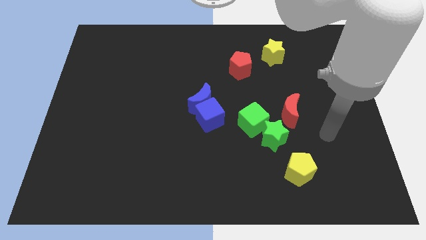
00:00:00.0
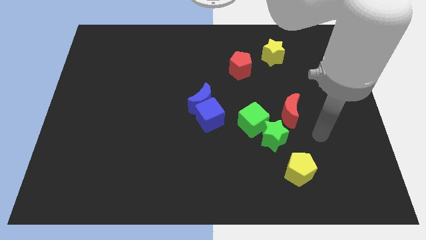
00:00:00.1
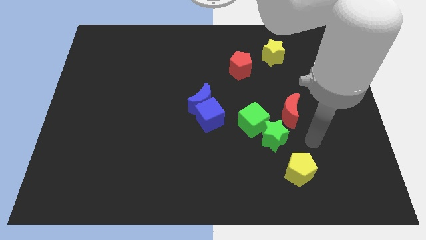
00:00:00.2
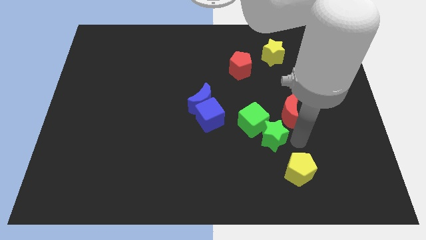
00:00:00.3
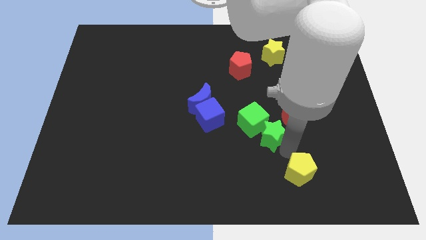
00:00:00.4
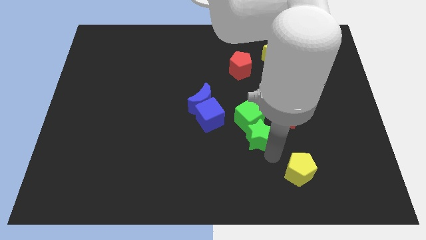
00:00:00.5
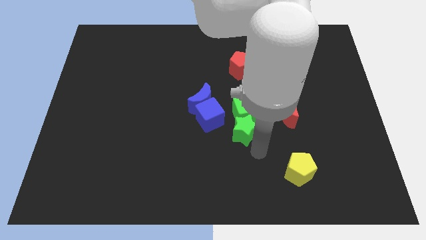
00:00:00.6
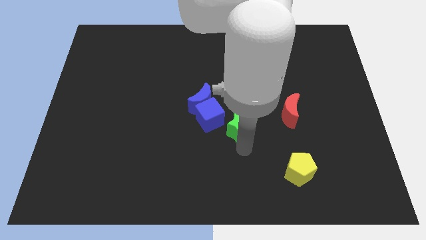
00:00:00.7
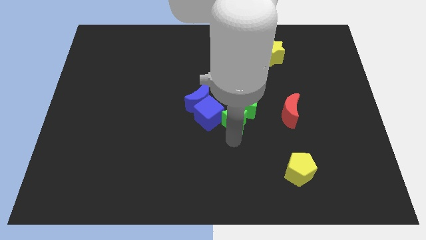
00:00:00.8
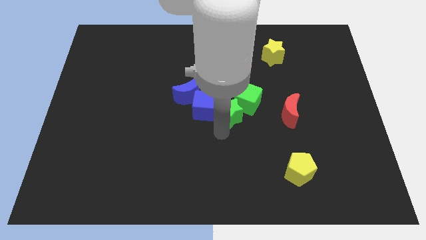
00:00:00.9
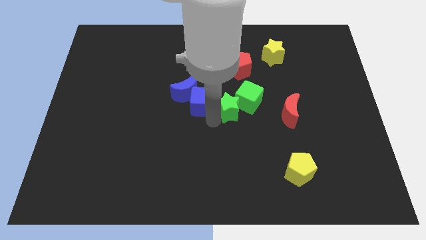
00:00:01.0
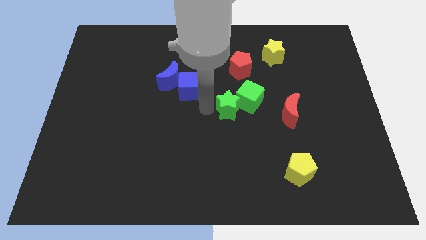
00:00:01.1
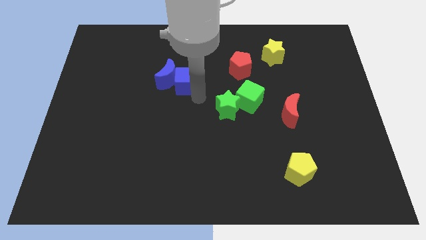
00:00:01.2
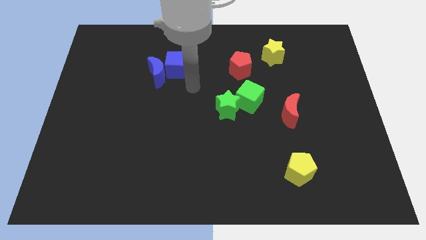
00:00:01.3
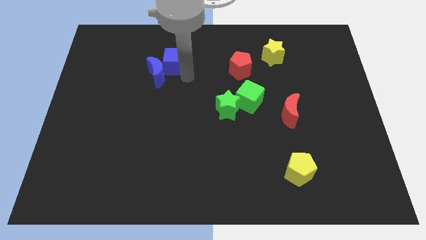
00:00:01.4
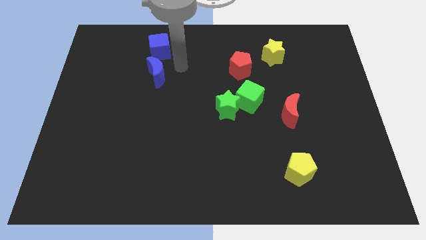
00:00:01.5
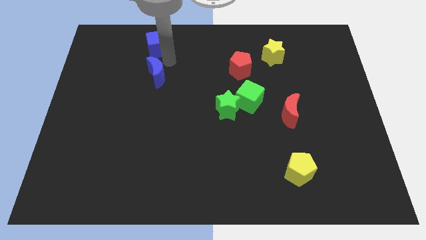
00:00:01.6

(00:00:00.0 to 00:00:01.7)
separate the blue moon from the blue cube

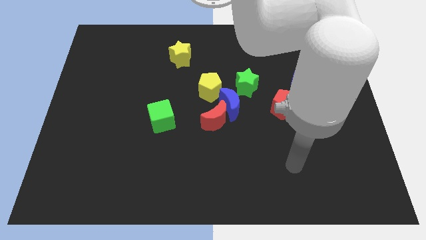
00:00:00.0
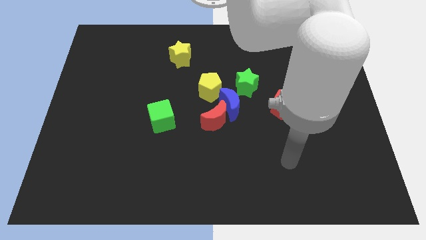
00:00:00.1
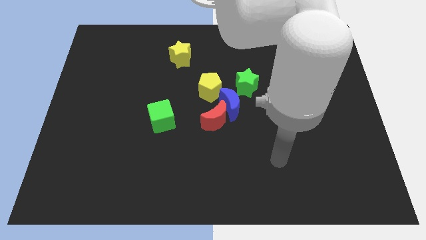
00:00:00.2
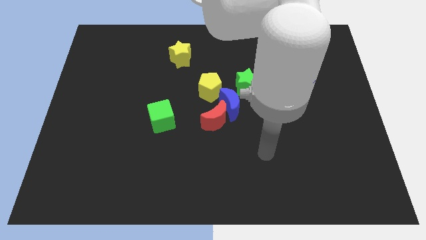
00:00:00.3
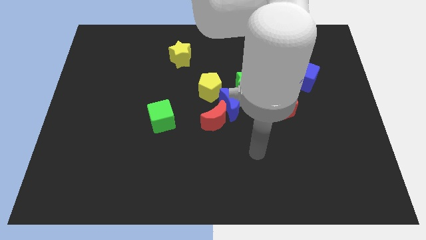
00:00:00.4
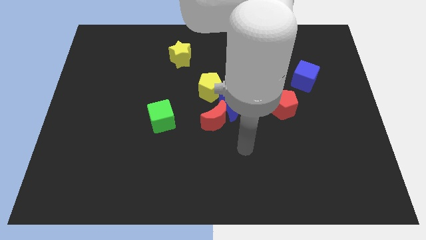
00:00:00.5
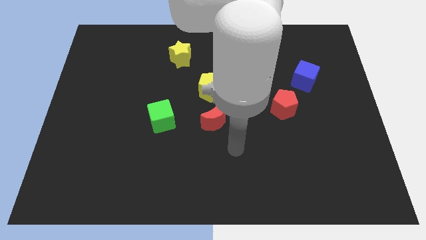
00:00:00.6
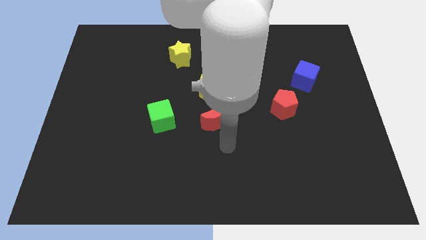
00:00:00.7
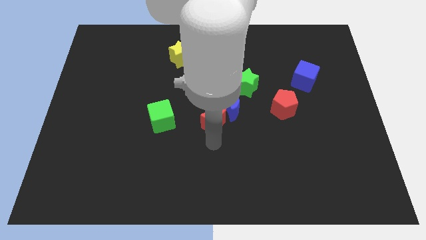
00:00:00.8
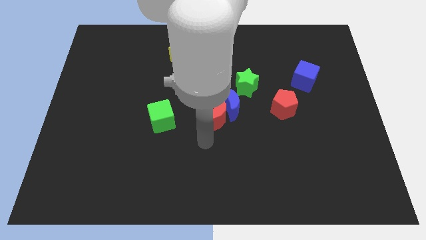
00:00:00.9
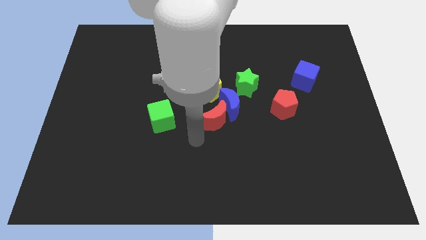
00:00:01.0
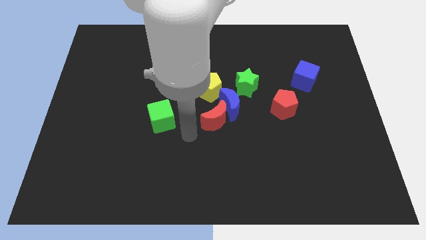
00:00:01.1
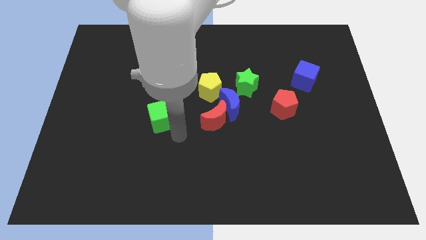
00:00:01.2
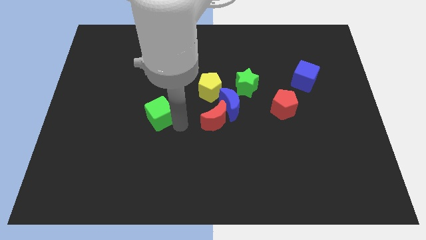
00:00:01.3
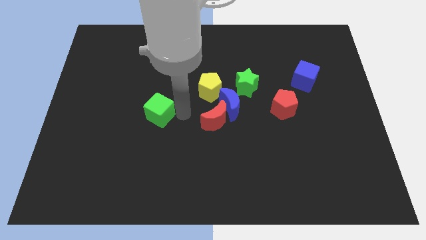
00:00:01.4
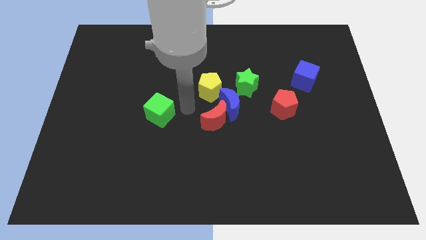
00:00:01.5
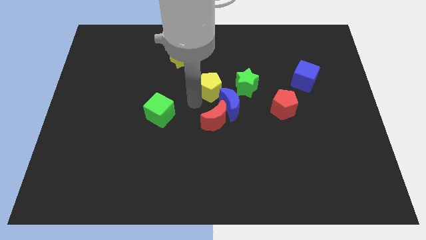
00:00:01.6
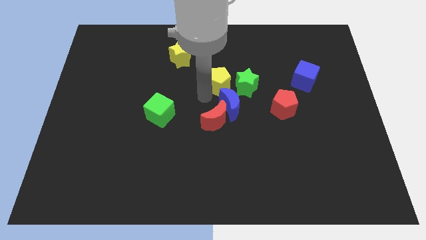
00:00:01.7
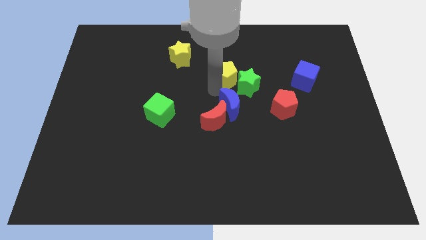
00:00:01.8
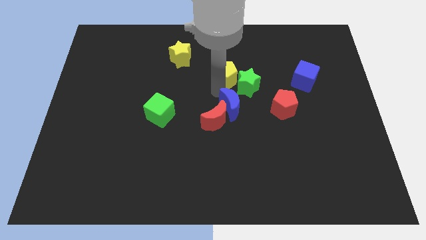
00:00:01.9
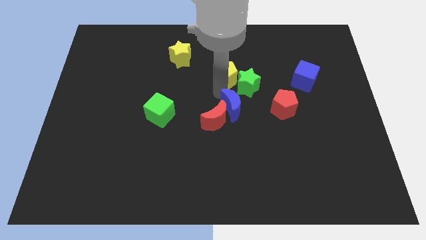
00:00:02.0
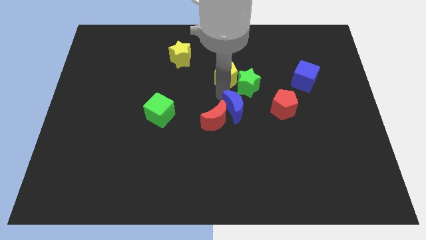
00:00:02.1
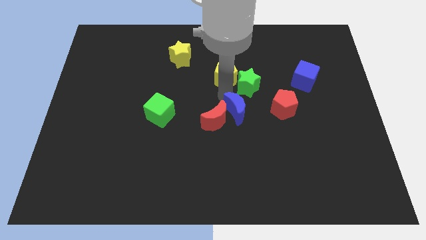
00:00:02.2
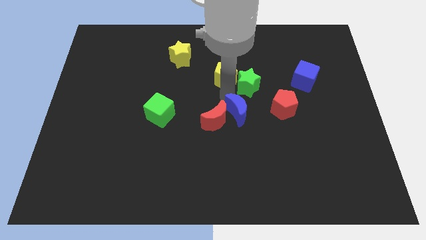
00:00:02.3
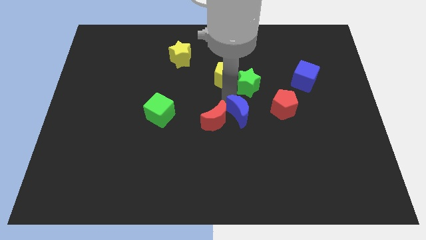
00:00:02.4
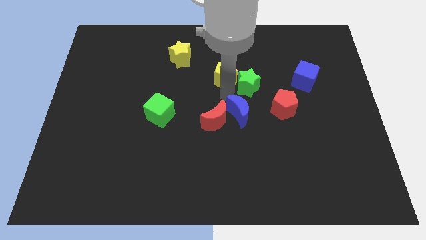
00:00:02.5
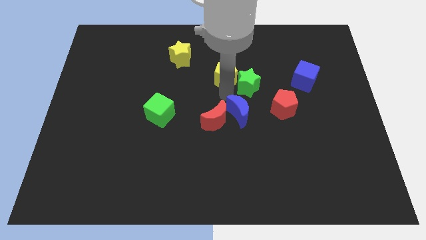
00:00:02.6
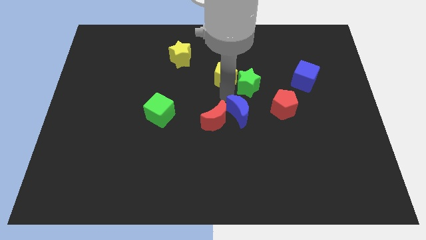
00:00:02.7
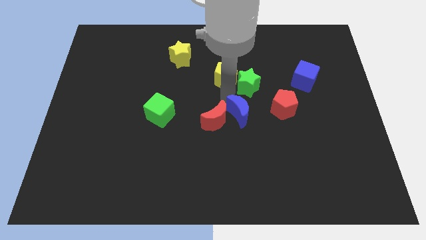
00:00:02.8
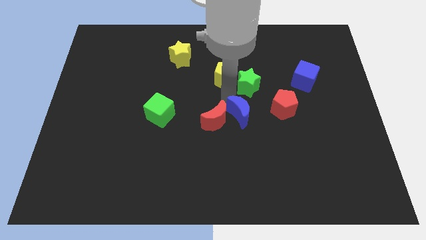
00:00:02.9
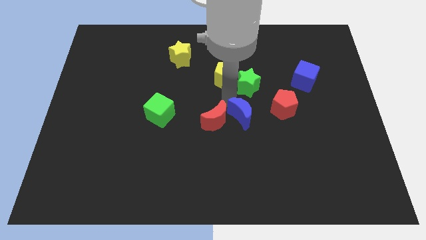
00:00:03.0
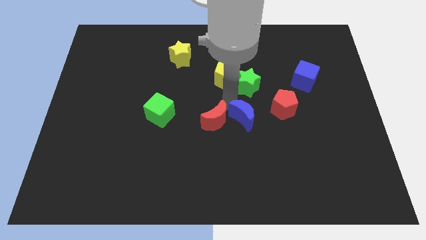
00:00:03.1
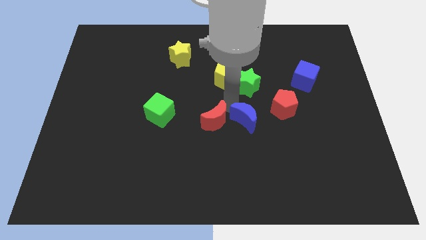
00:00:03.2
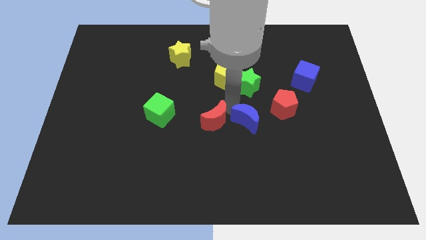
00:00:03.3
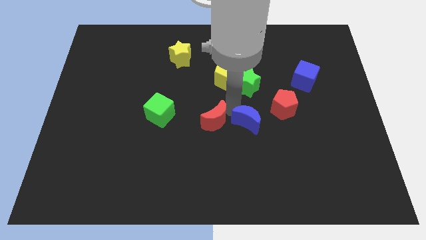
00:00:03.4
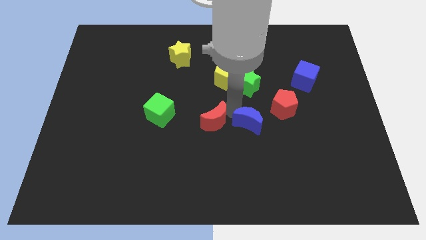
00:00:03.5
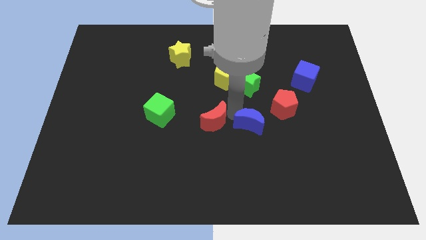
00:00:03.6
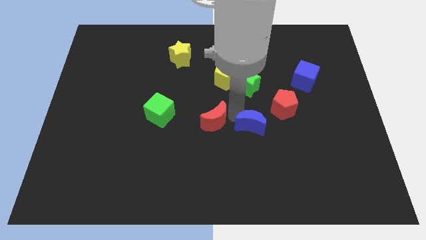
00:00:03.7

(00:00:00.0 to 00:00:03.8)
move the blue moon away from the group of blocks

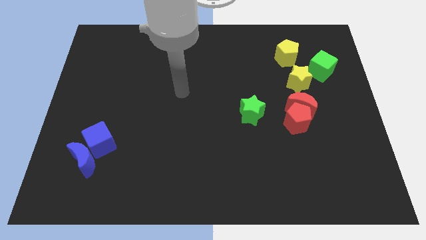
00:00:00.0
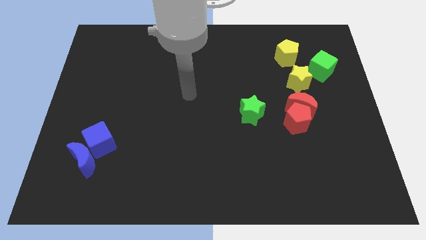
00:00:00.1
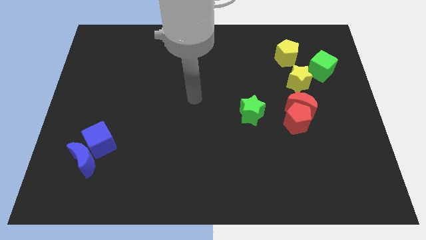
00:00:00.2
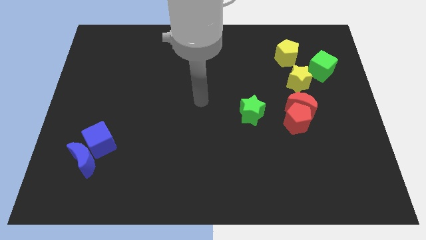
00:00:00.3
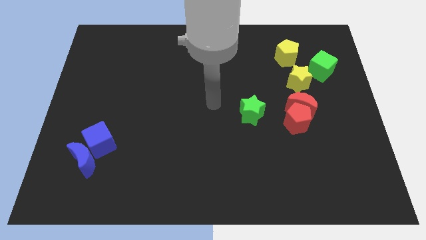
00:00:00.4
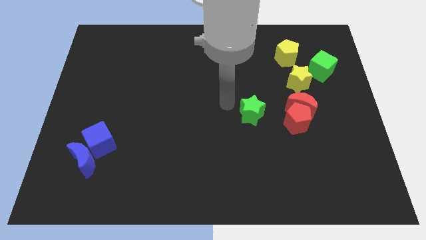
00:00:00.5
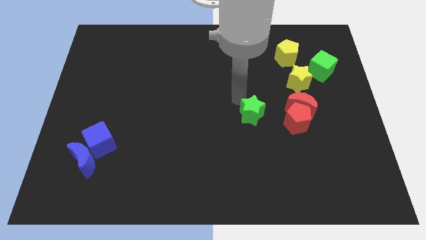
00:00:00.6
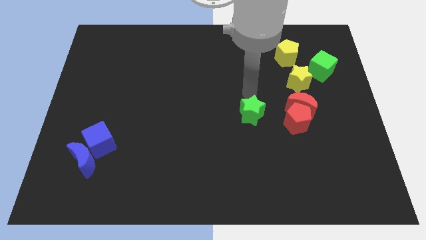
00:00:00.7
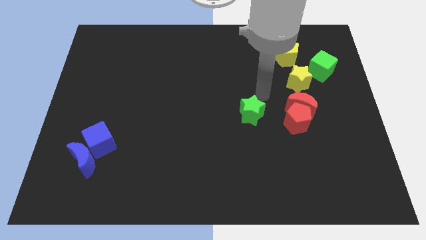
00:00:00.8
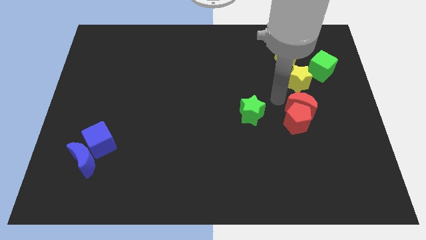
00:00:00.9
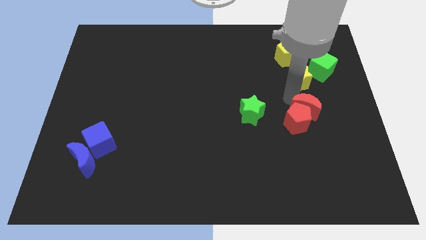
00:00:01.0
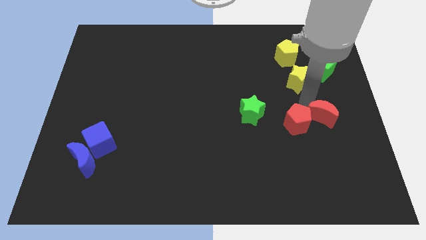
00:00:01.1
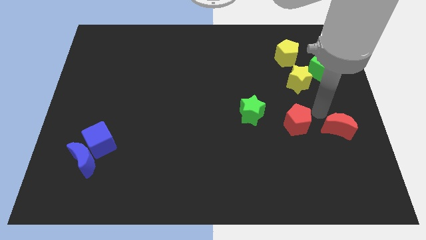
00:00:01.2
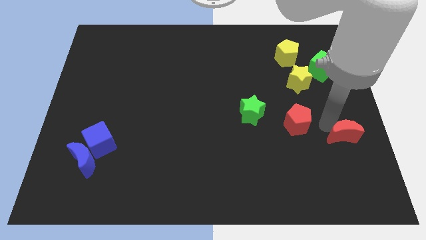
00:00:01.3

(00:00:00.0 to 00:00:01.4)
pull the red pentagon apart from the red moon

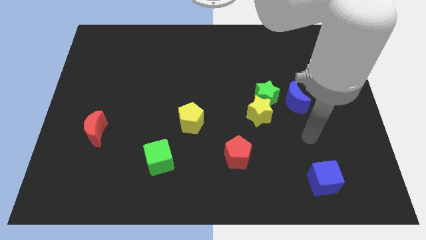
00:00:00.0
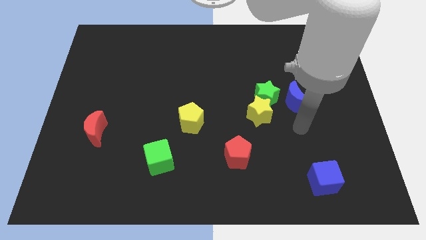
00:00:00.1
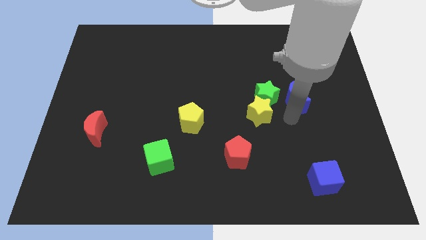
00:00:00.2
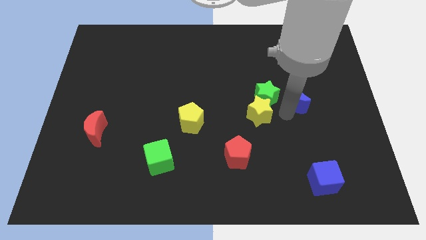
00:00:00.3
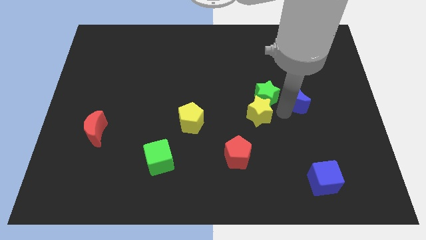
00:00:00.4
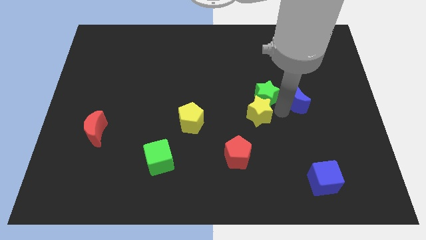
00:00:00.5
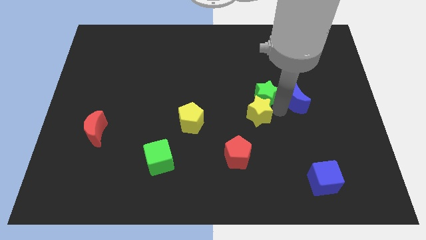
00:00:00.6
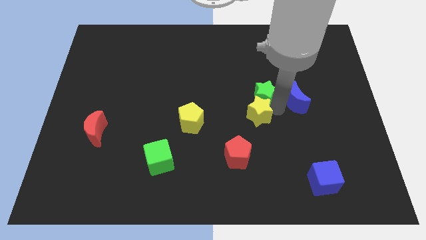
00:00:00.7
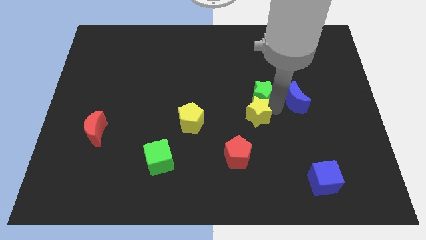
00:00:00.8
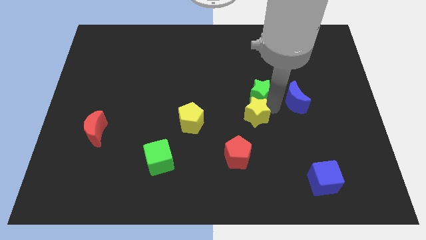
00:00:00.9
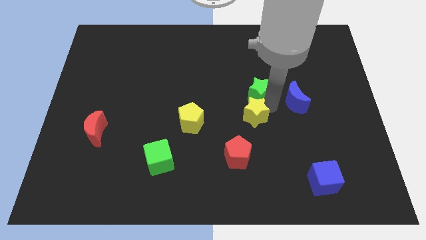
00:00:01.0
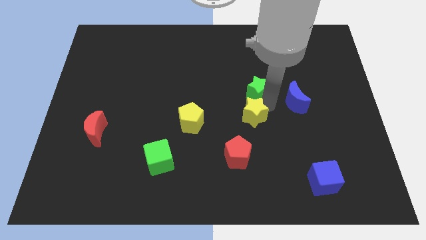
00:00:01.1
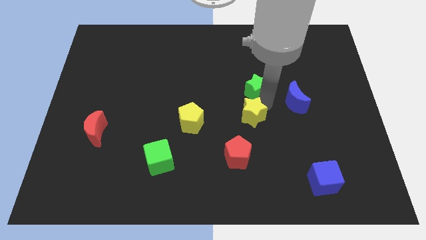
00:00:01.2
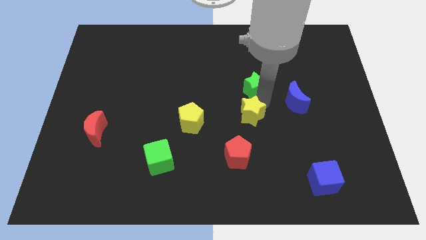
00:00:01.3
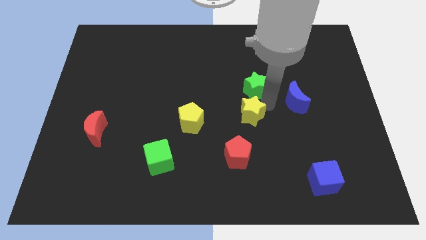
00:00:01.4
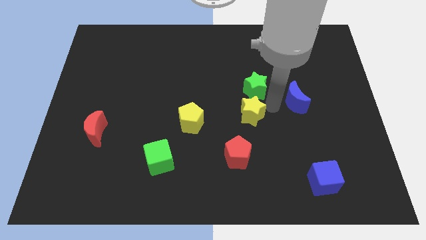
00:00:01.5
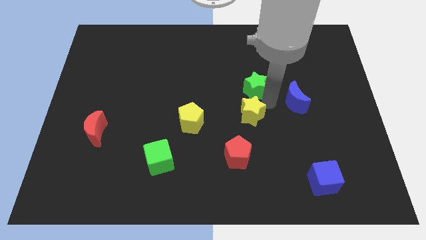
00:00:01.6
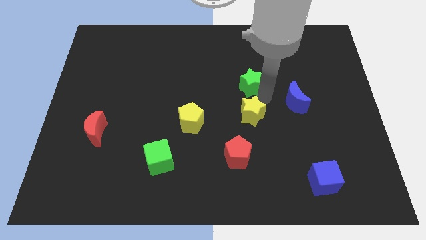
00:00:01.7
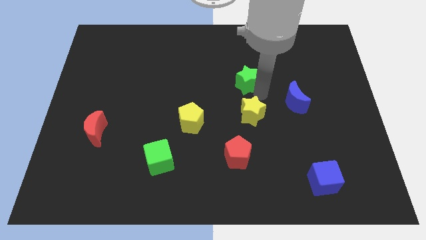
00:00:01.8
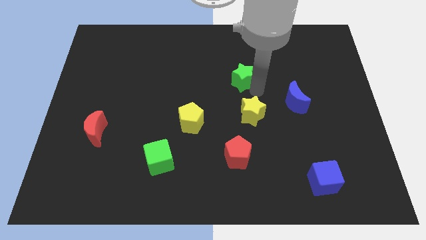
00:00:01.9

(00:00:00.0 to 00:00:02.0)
move the green star away from the yellow star and blue moon

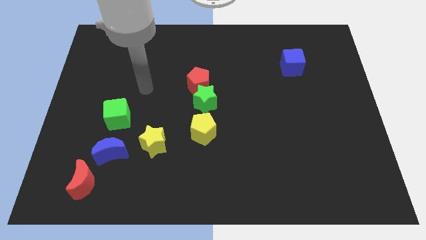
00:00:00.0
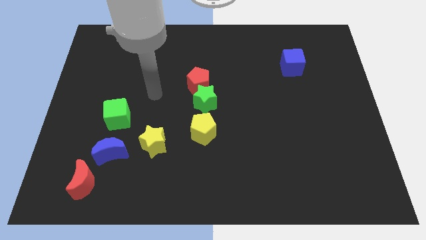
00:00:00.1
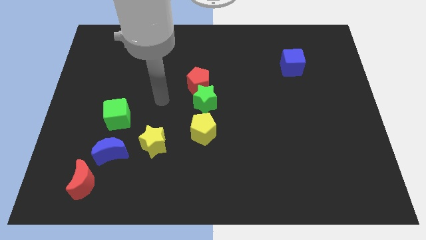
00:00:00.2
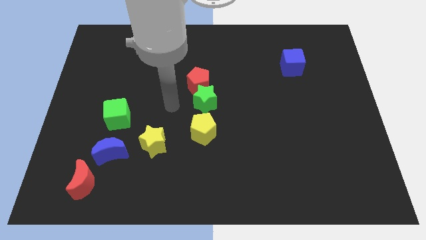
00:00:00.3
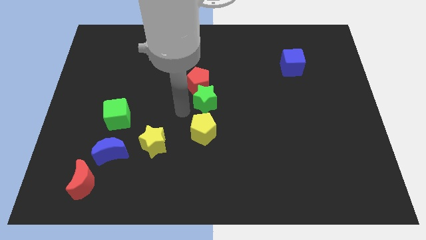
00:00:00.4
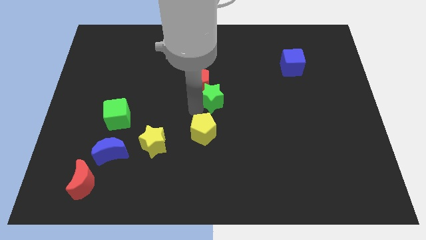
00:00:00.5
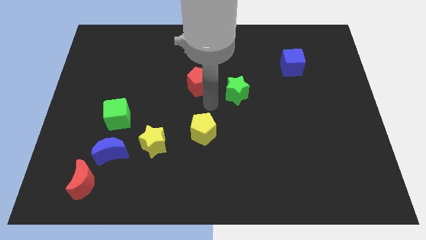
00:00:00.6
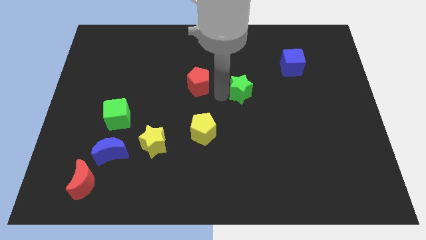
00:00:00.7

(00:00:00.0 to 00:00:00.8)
separate the red pentagon from the green star
